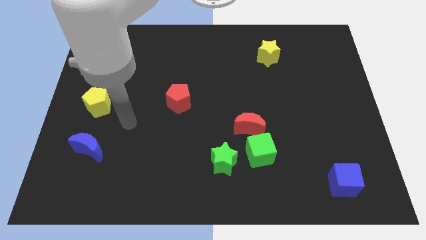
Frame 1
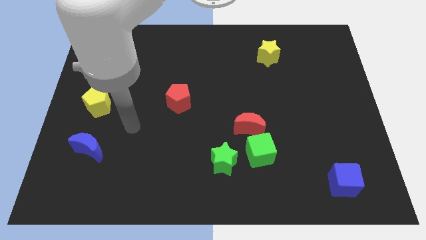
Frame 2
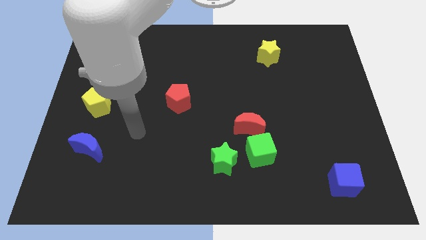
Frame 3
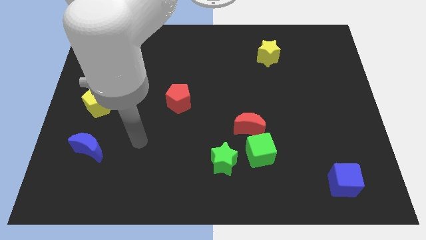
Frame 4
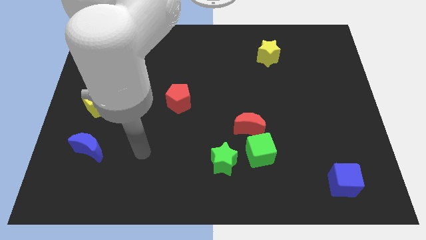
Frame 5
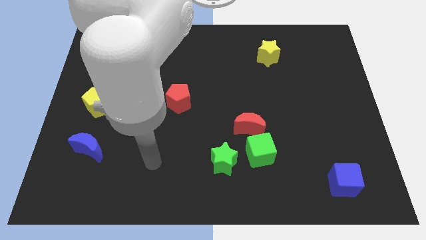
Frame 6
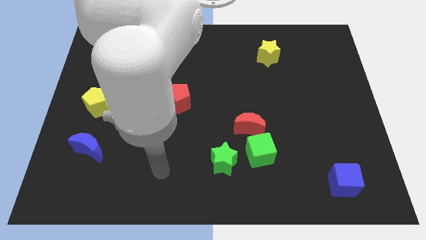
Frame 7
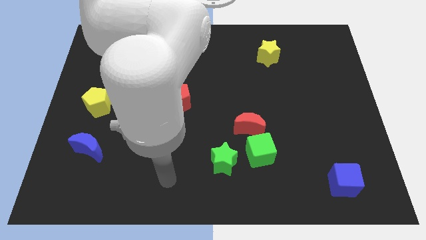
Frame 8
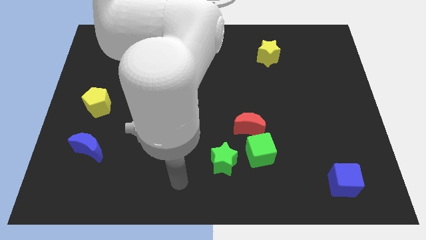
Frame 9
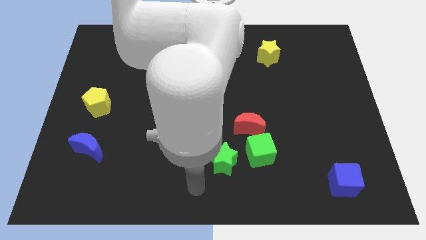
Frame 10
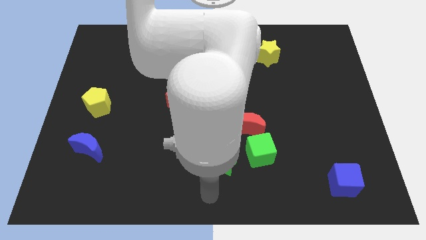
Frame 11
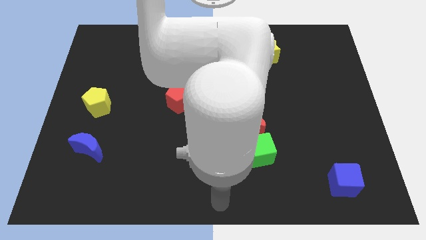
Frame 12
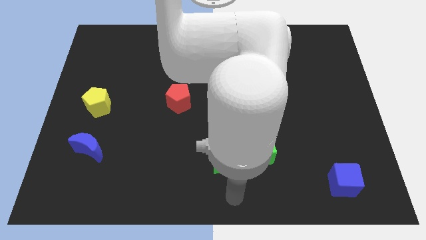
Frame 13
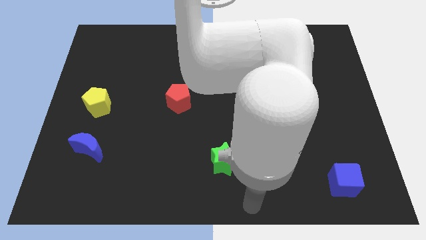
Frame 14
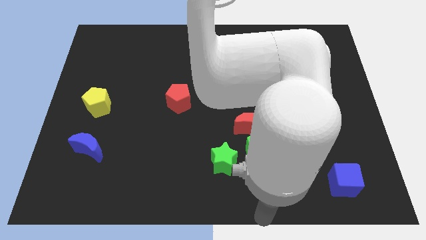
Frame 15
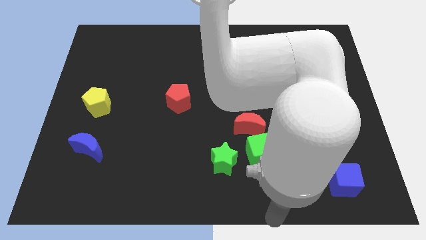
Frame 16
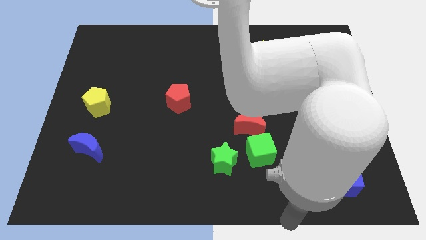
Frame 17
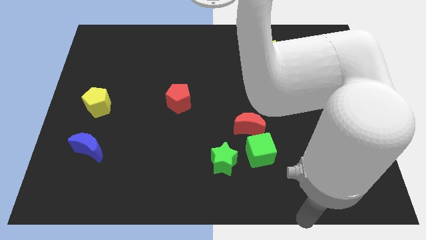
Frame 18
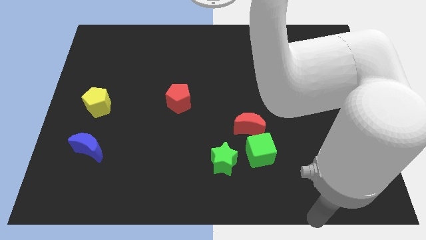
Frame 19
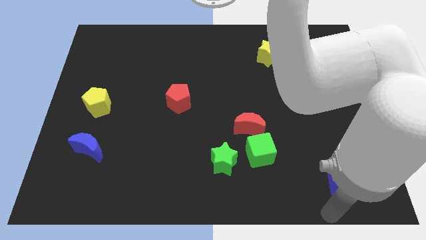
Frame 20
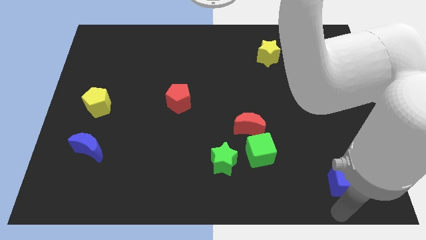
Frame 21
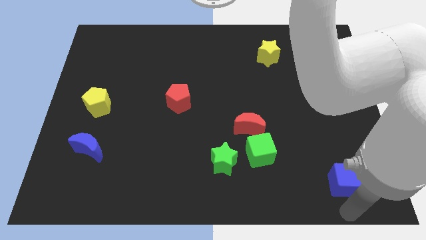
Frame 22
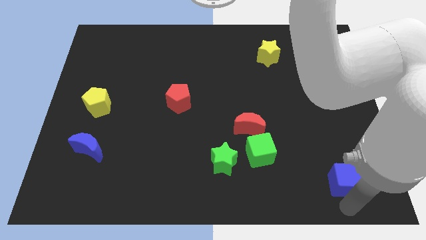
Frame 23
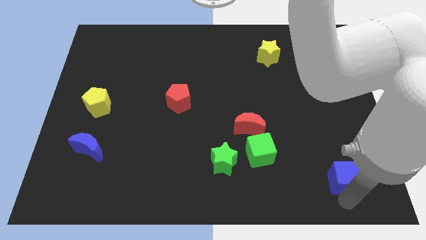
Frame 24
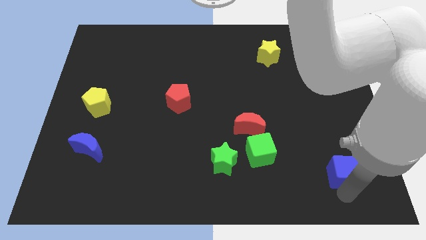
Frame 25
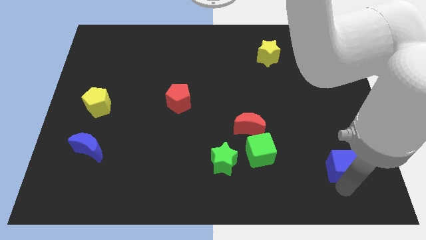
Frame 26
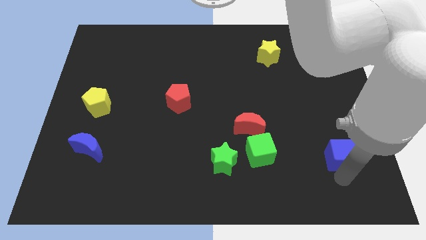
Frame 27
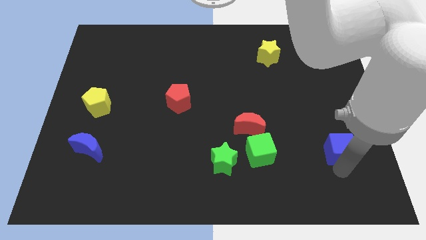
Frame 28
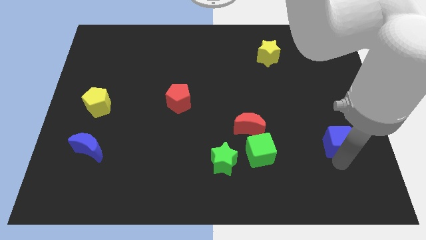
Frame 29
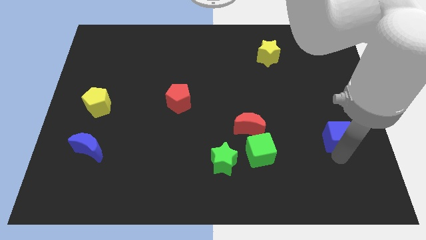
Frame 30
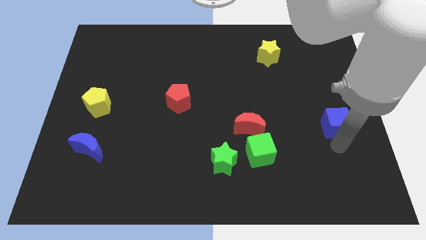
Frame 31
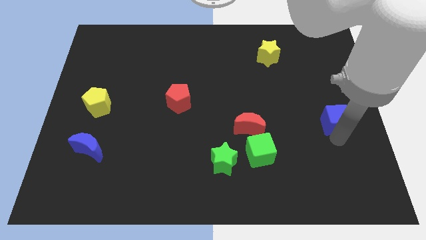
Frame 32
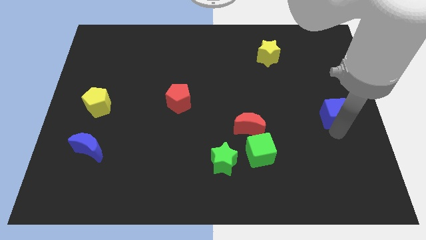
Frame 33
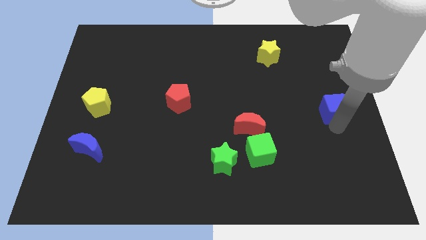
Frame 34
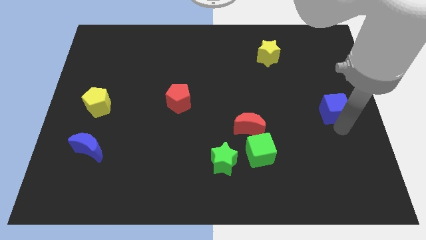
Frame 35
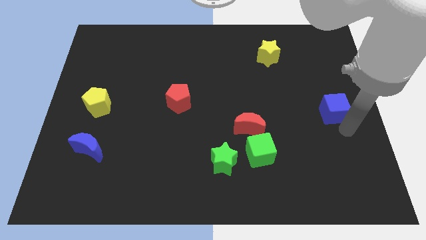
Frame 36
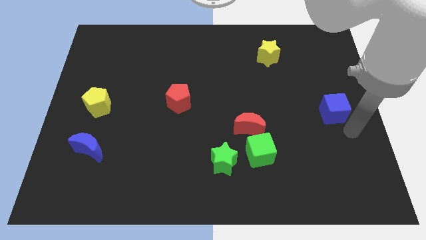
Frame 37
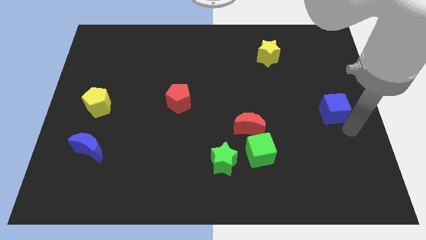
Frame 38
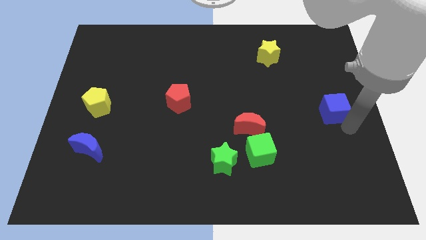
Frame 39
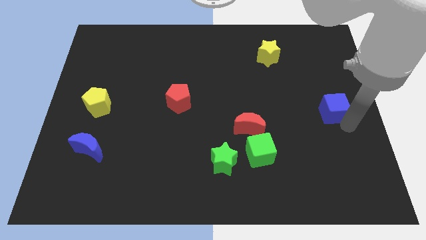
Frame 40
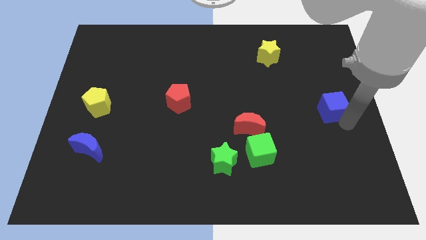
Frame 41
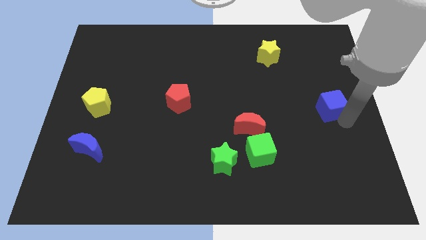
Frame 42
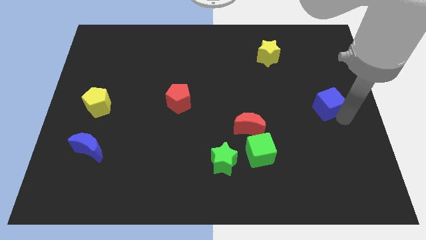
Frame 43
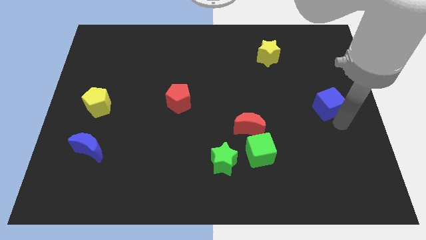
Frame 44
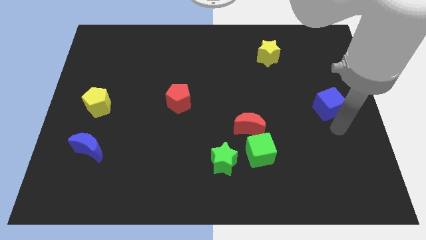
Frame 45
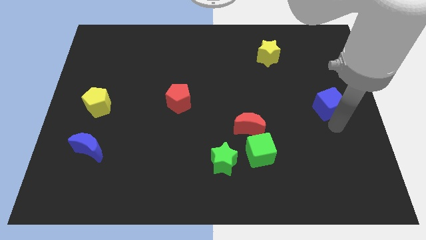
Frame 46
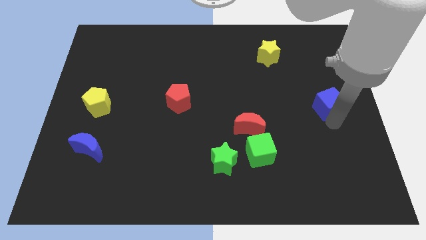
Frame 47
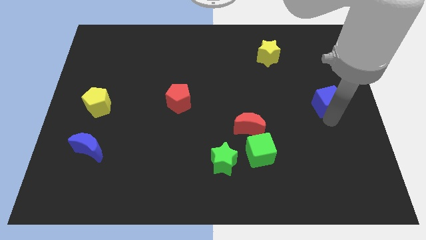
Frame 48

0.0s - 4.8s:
push the blue cube up

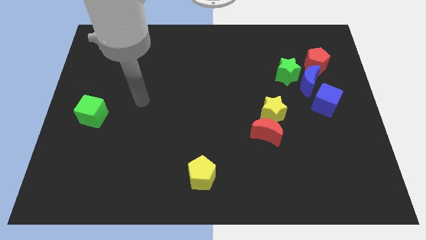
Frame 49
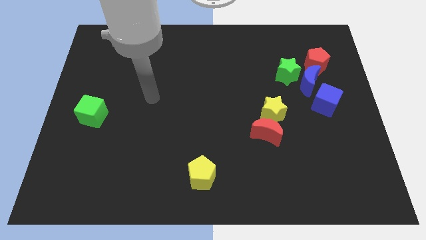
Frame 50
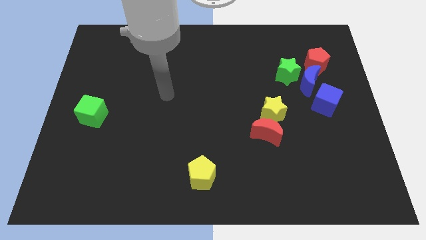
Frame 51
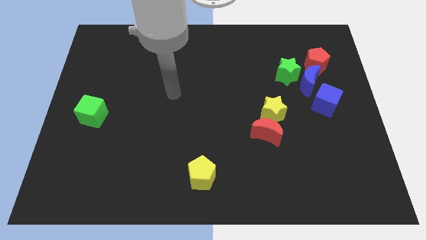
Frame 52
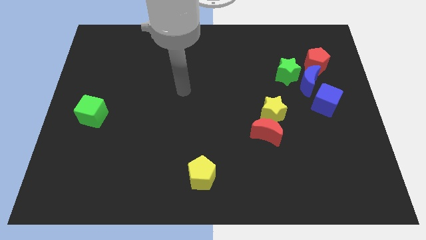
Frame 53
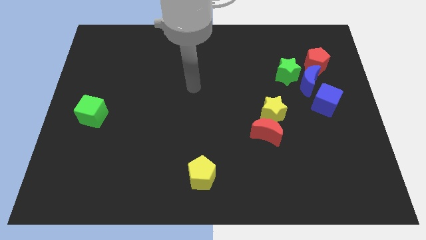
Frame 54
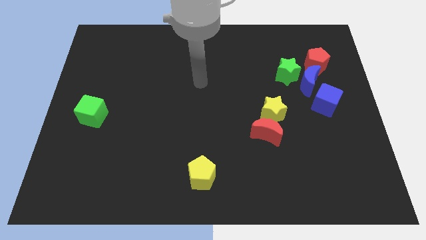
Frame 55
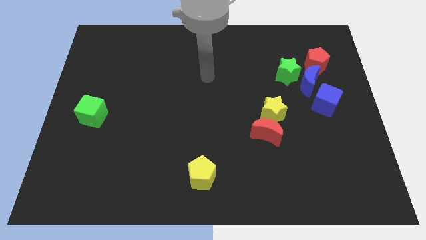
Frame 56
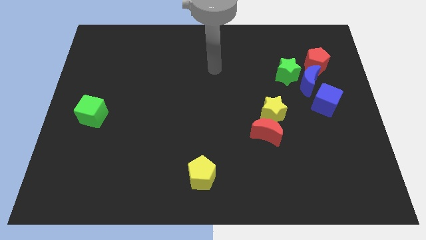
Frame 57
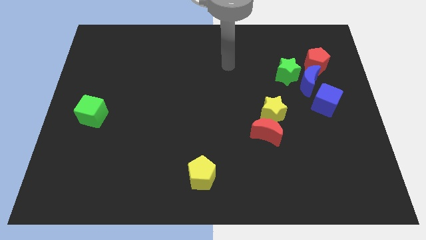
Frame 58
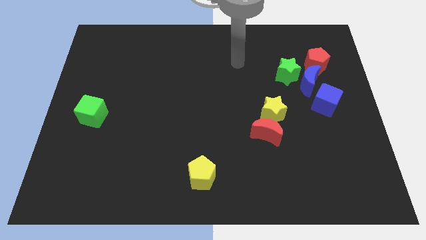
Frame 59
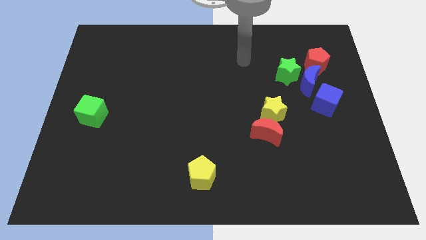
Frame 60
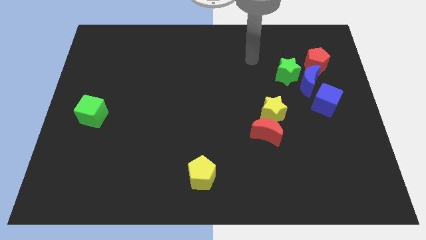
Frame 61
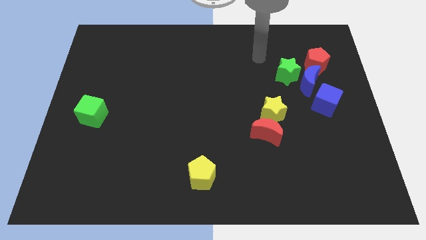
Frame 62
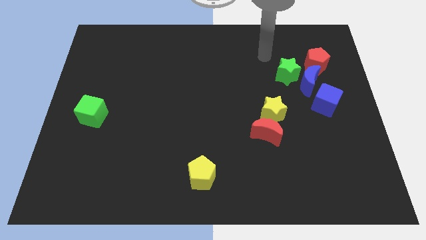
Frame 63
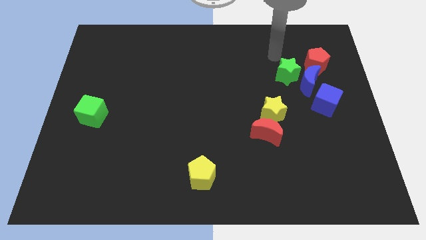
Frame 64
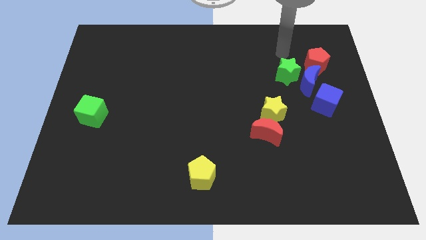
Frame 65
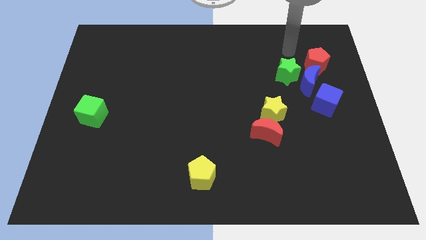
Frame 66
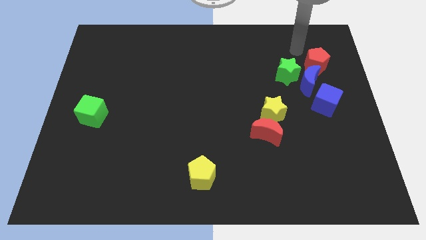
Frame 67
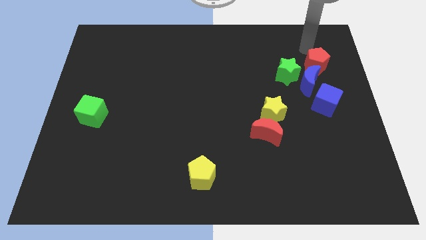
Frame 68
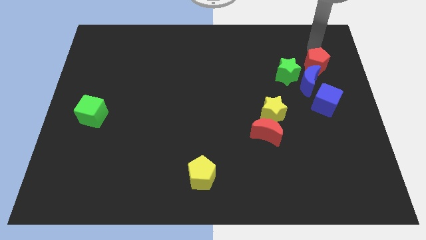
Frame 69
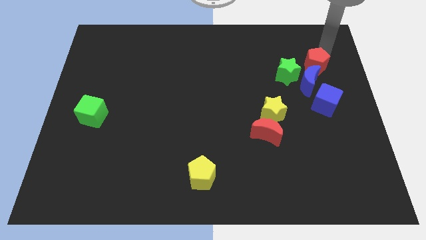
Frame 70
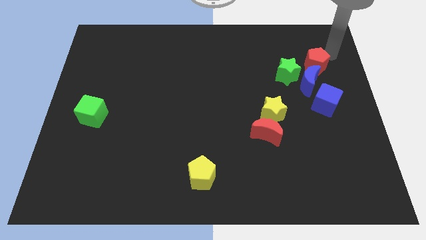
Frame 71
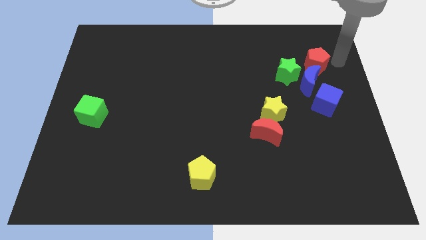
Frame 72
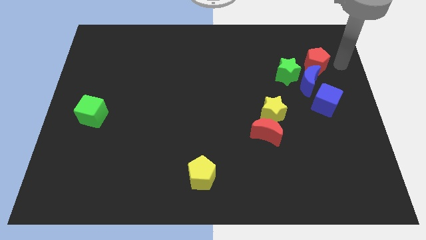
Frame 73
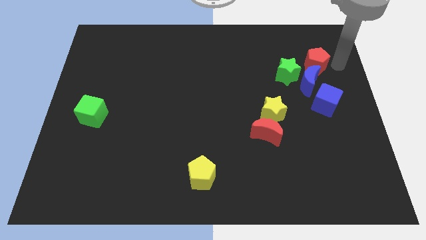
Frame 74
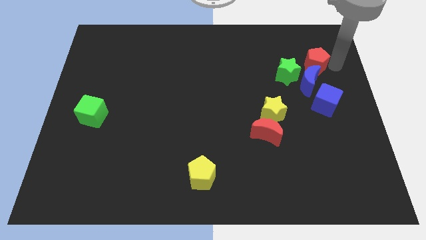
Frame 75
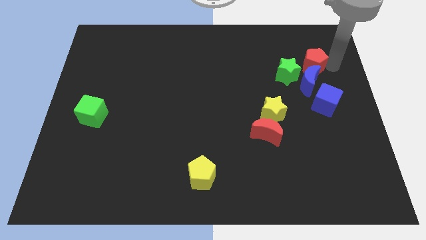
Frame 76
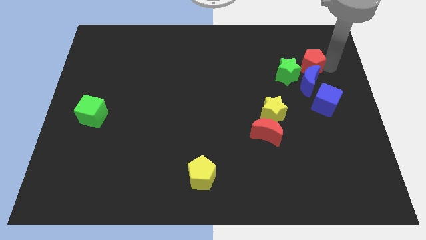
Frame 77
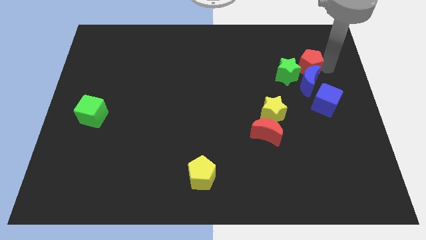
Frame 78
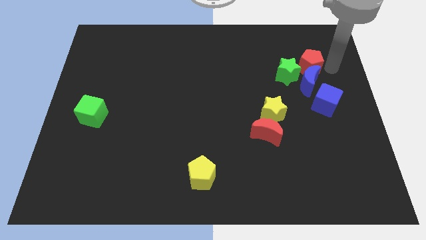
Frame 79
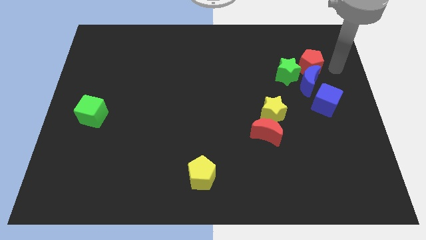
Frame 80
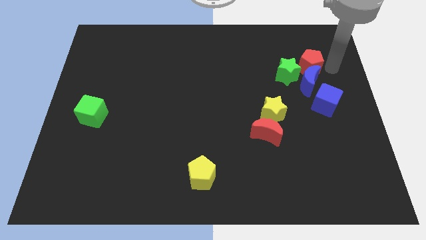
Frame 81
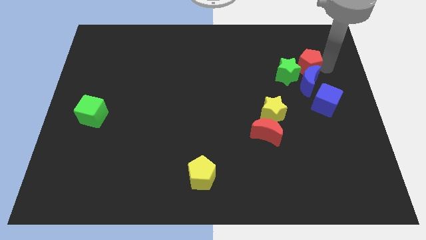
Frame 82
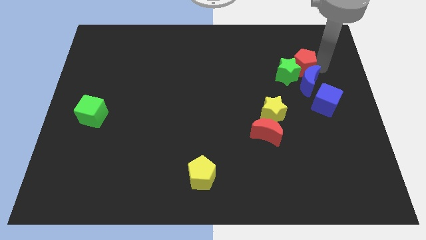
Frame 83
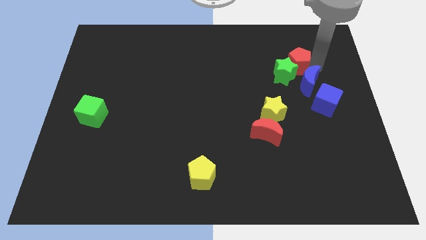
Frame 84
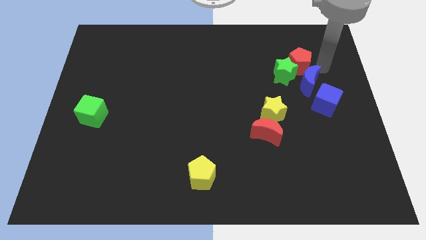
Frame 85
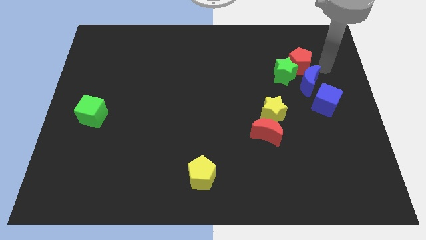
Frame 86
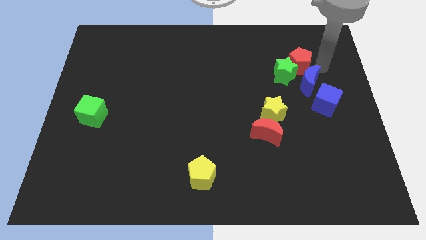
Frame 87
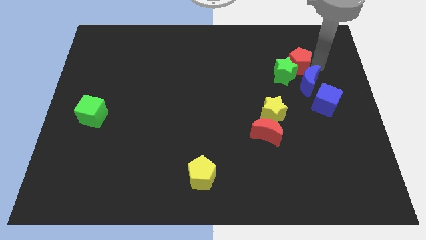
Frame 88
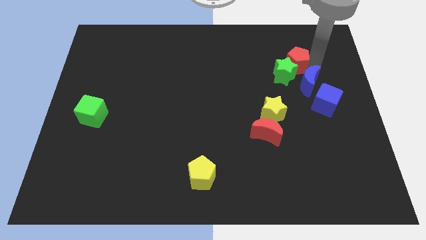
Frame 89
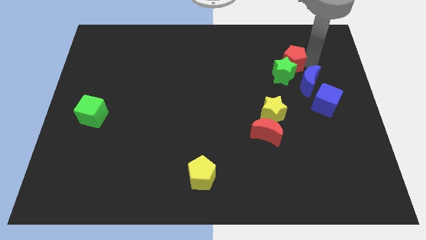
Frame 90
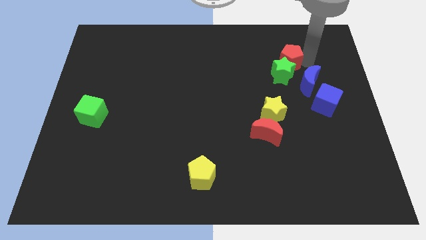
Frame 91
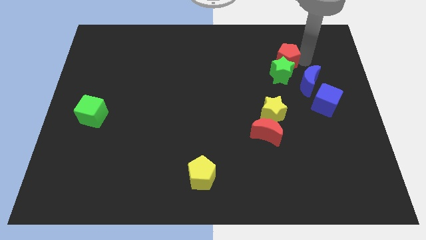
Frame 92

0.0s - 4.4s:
slightly push the red pentagon left
